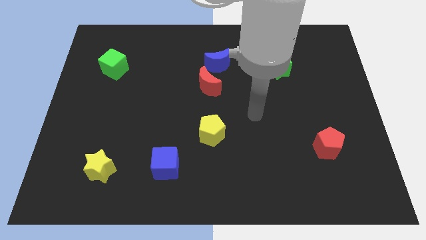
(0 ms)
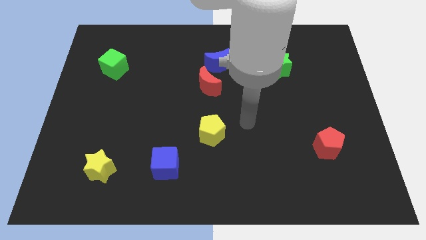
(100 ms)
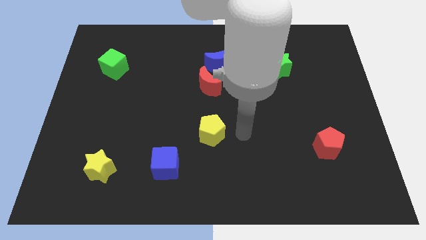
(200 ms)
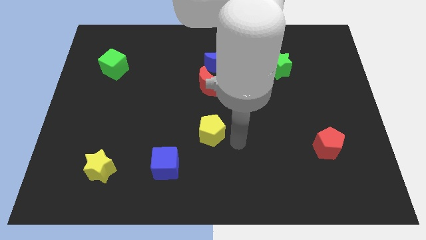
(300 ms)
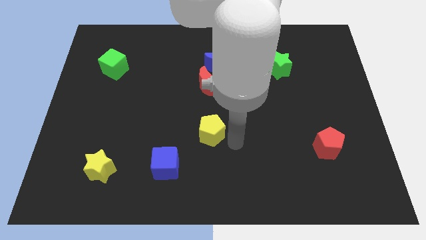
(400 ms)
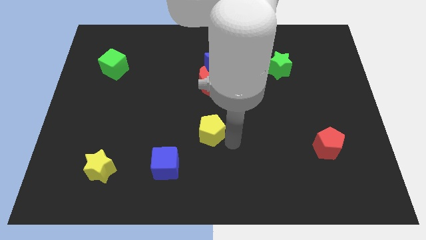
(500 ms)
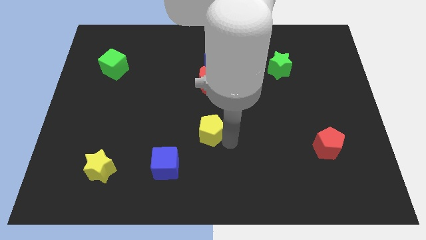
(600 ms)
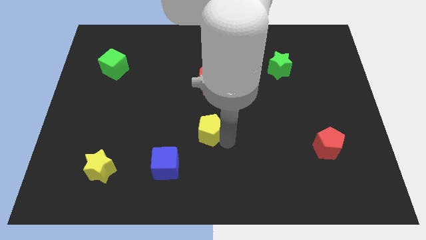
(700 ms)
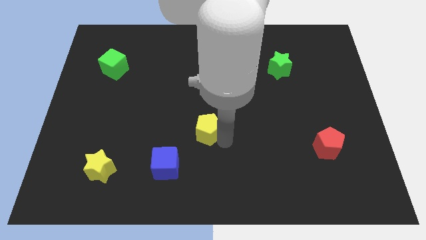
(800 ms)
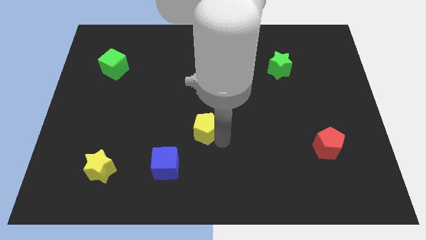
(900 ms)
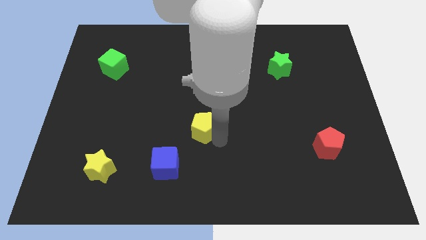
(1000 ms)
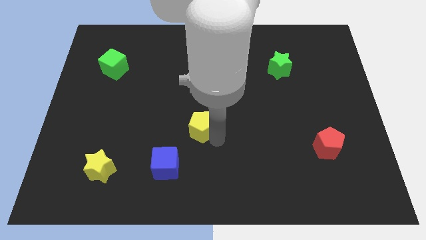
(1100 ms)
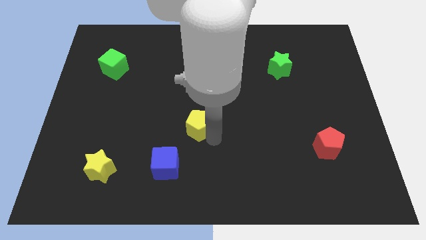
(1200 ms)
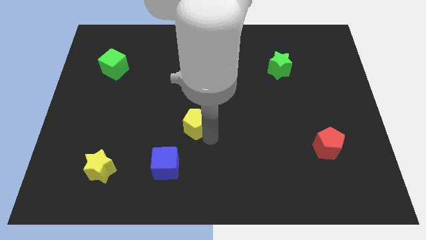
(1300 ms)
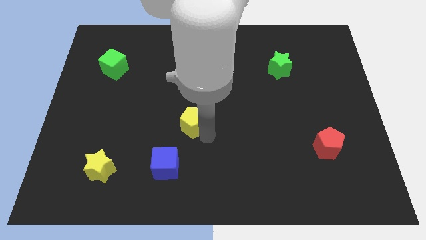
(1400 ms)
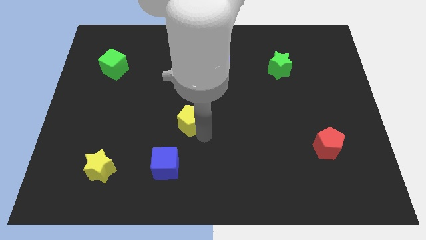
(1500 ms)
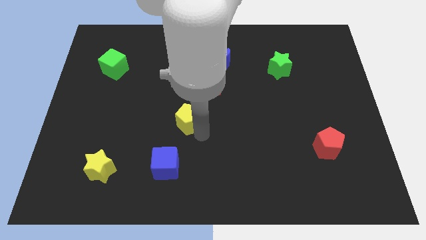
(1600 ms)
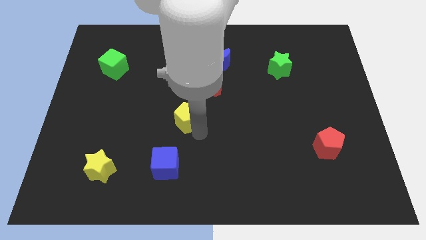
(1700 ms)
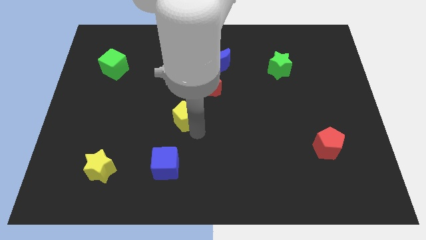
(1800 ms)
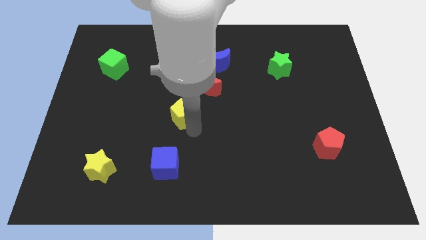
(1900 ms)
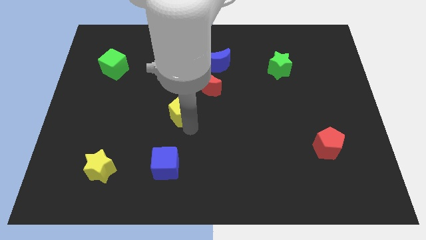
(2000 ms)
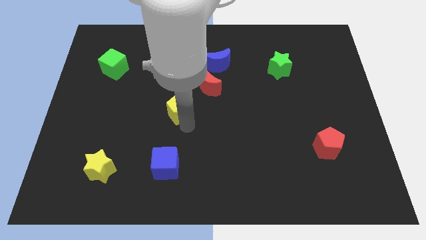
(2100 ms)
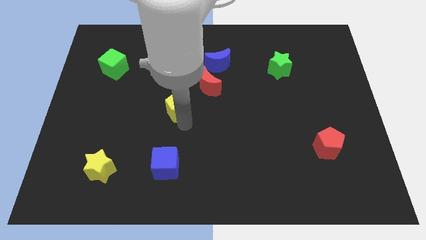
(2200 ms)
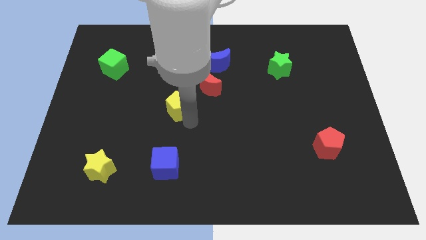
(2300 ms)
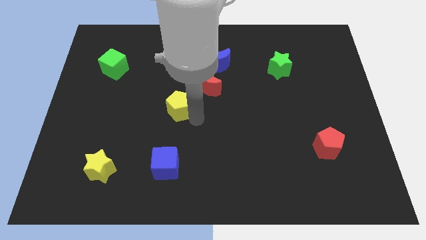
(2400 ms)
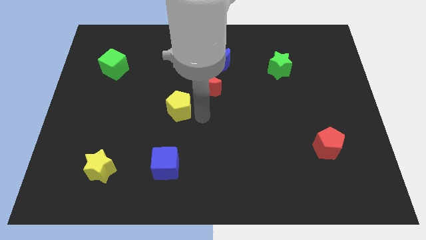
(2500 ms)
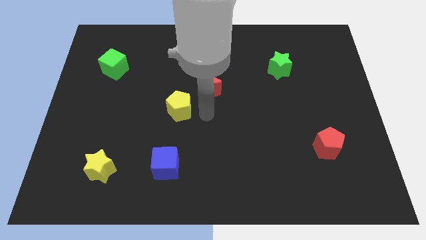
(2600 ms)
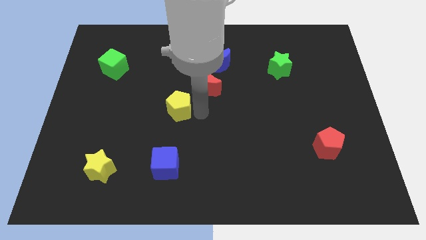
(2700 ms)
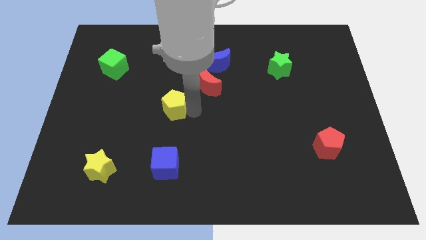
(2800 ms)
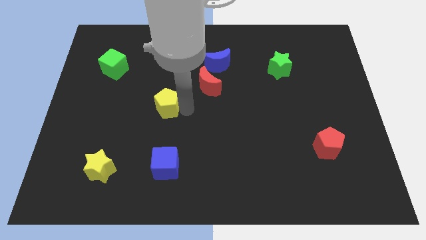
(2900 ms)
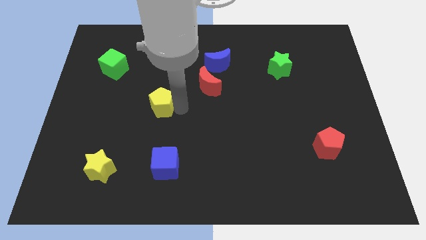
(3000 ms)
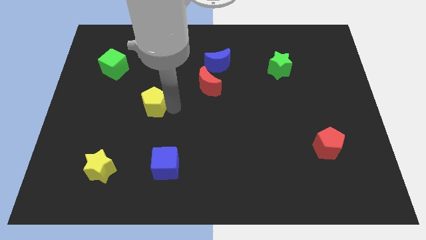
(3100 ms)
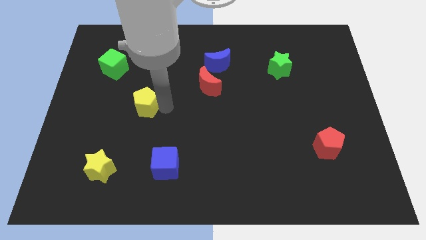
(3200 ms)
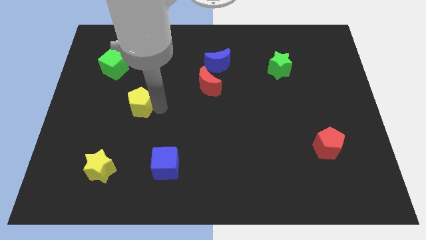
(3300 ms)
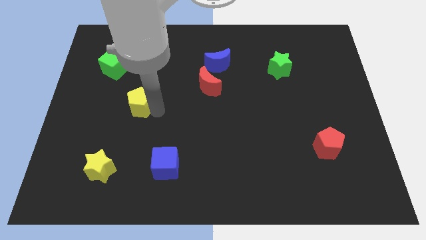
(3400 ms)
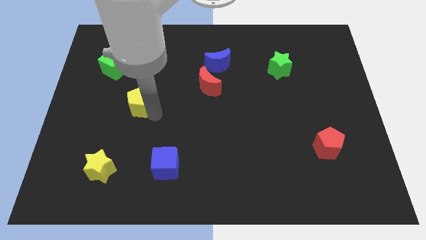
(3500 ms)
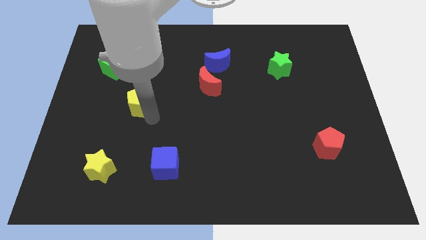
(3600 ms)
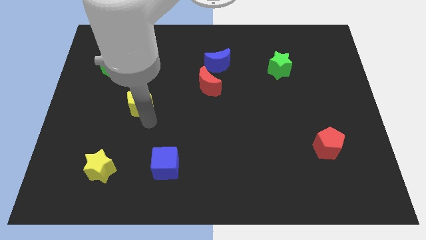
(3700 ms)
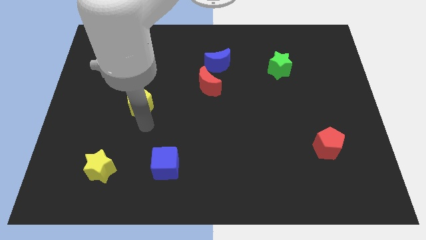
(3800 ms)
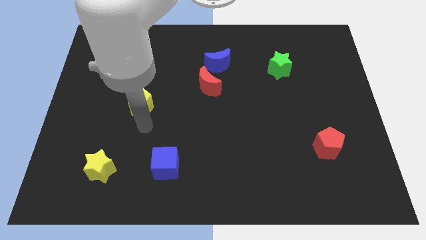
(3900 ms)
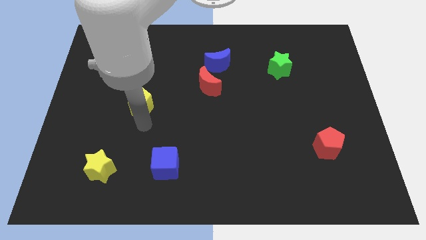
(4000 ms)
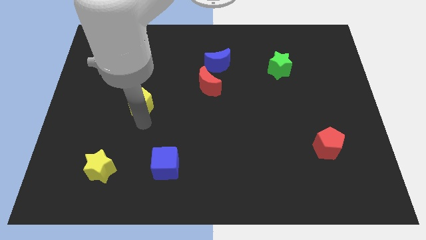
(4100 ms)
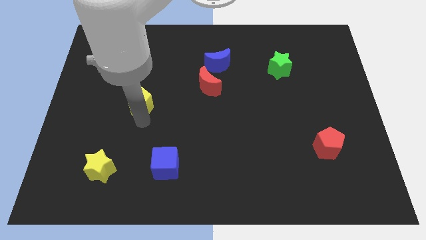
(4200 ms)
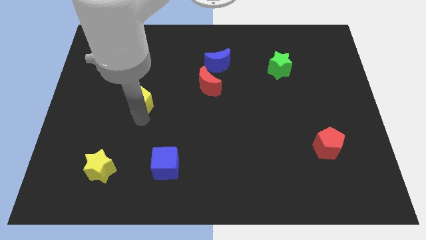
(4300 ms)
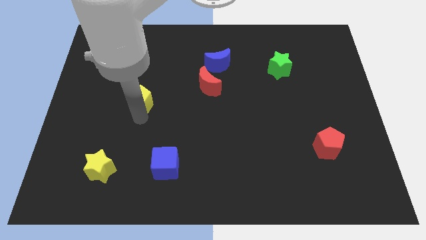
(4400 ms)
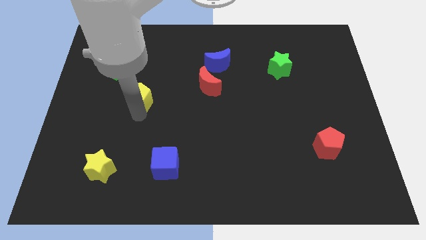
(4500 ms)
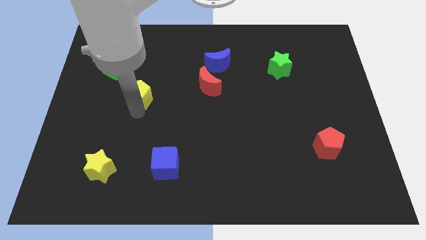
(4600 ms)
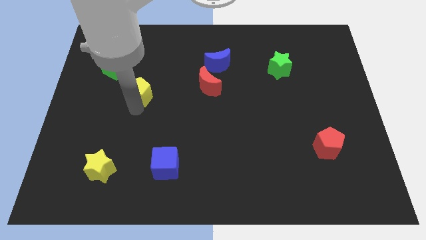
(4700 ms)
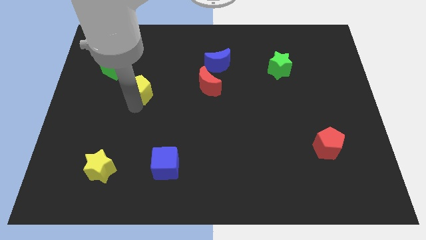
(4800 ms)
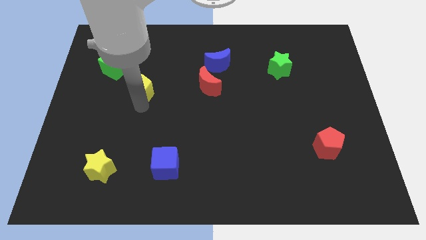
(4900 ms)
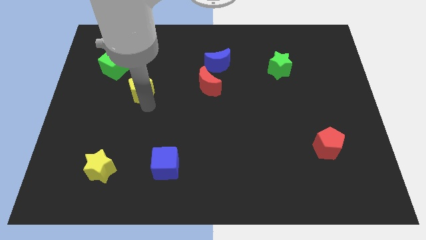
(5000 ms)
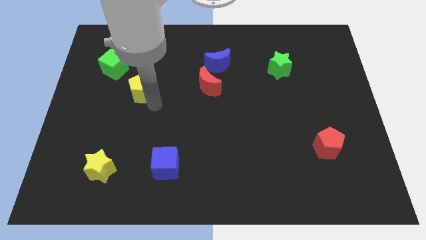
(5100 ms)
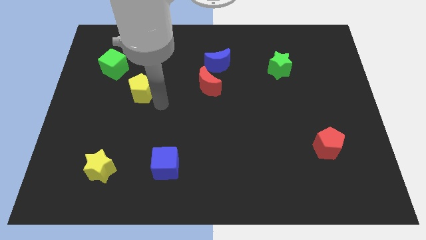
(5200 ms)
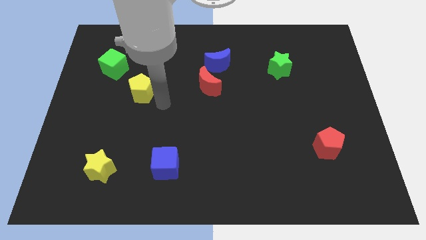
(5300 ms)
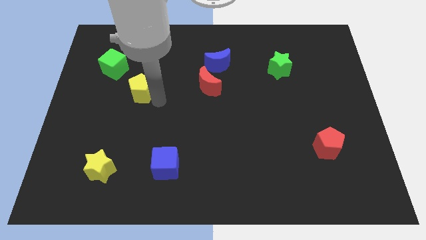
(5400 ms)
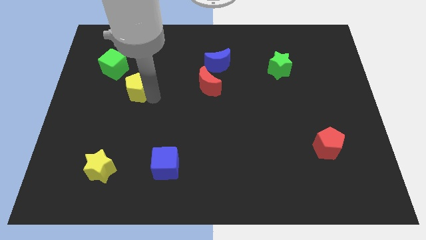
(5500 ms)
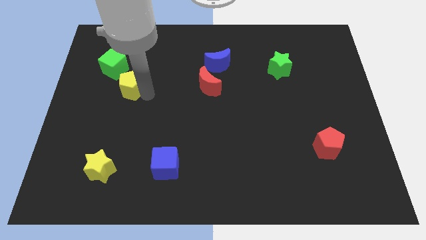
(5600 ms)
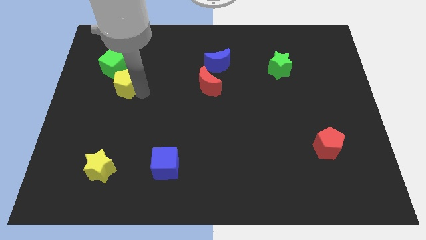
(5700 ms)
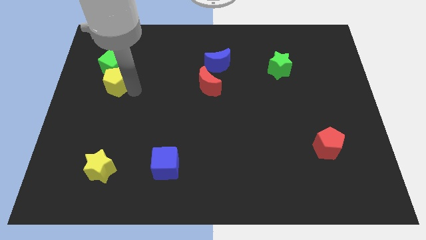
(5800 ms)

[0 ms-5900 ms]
move the yellow pentagon next to the green cube

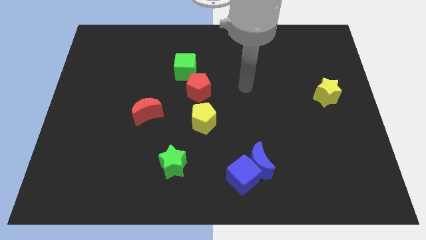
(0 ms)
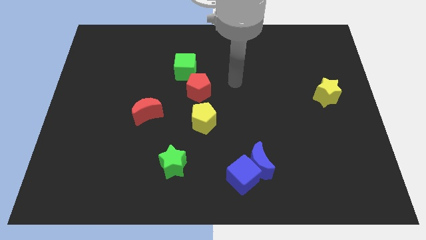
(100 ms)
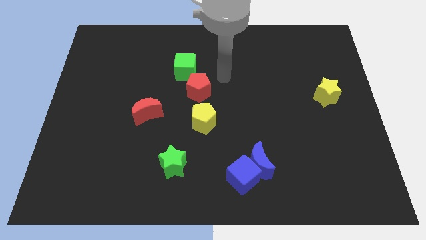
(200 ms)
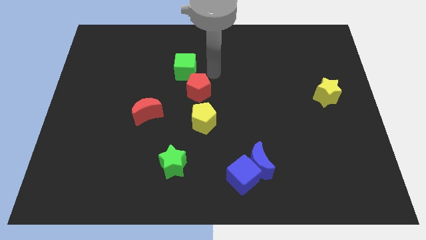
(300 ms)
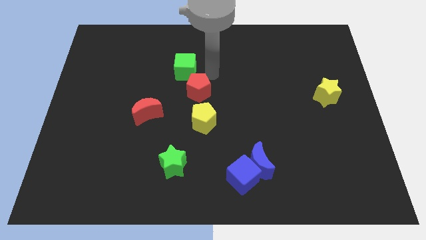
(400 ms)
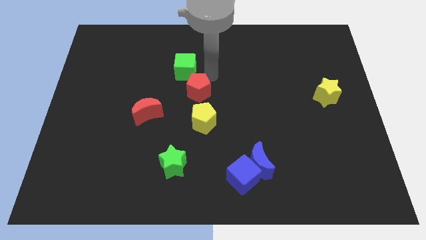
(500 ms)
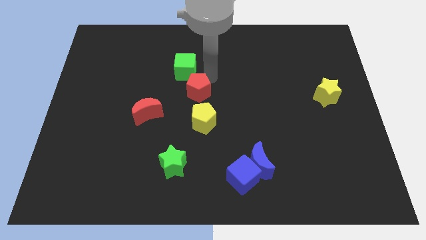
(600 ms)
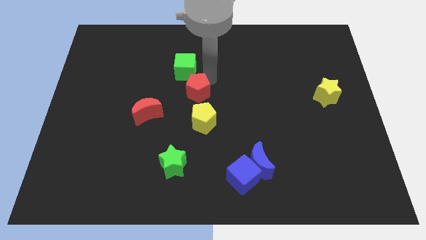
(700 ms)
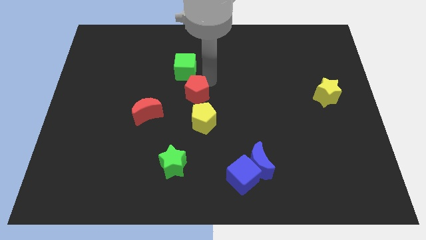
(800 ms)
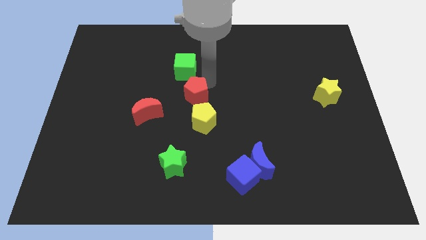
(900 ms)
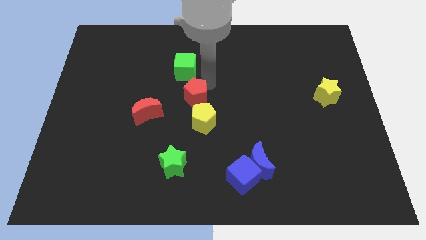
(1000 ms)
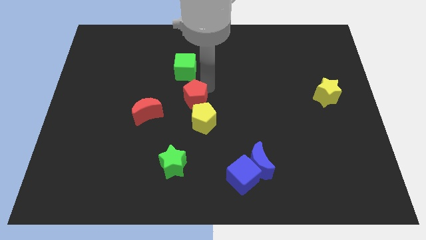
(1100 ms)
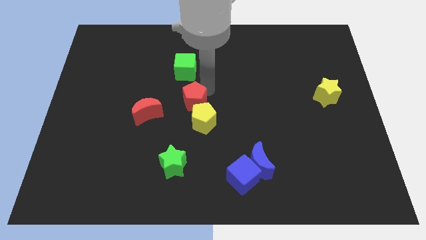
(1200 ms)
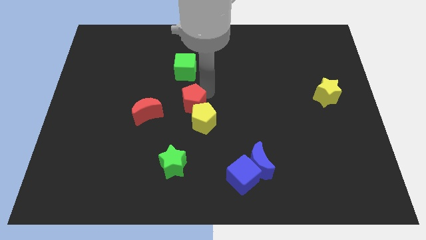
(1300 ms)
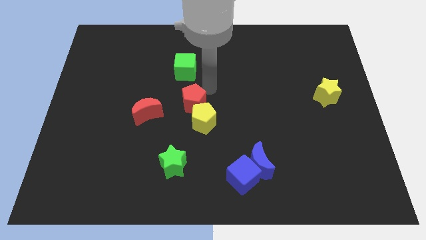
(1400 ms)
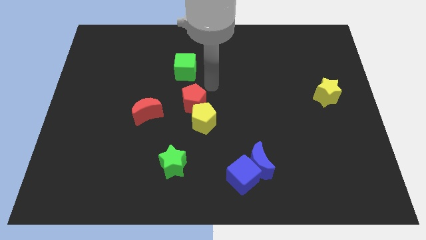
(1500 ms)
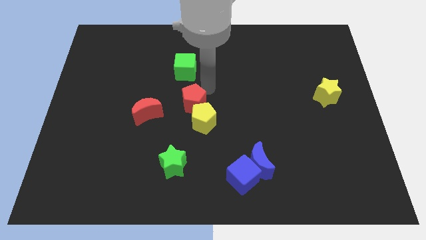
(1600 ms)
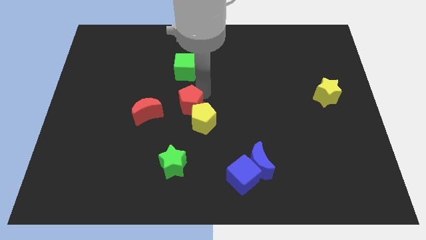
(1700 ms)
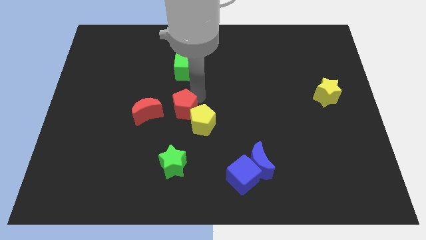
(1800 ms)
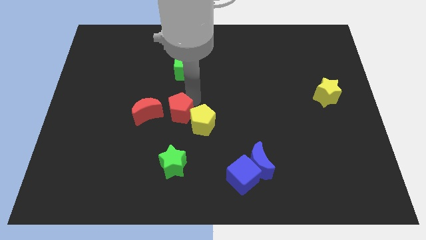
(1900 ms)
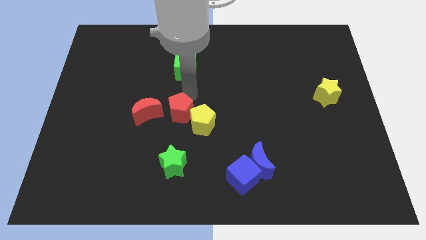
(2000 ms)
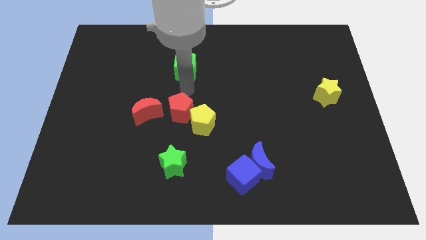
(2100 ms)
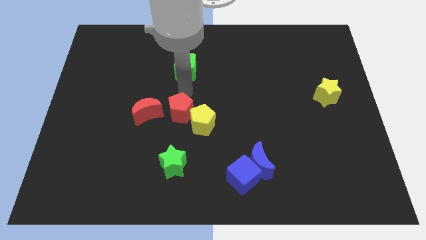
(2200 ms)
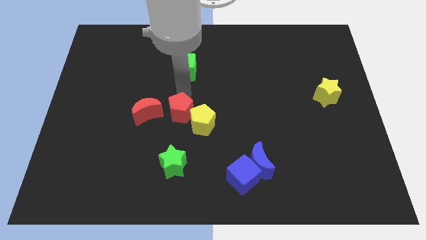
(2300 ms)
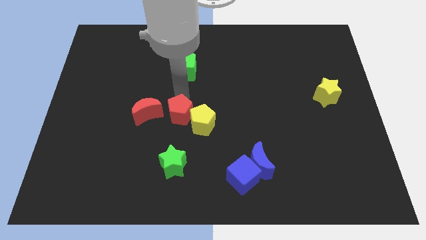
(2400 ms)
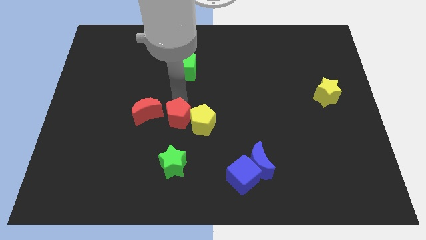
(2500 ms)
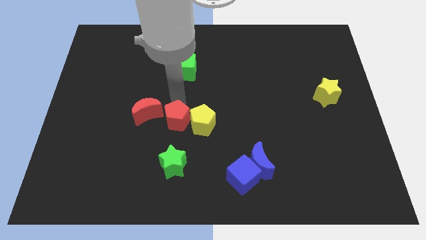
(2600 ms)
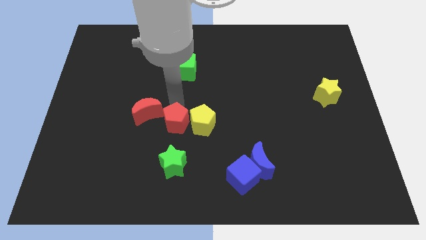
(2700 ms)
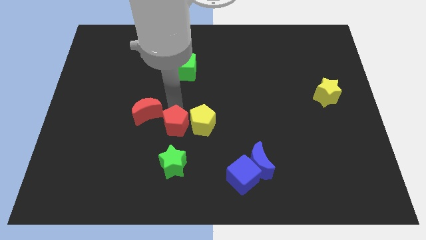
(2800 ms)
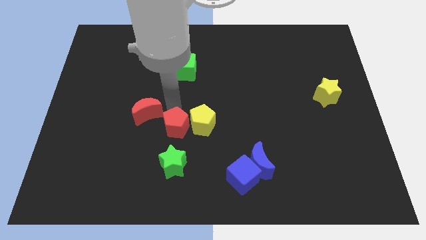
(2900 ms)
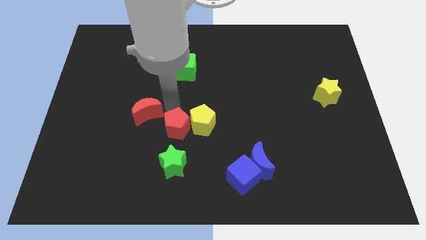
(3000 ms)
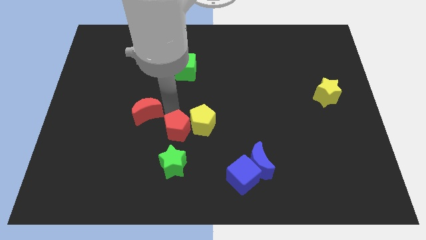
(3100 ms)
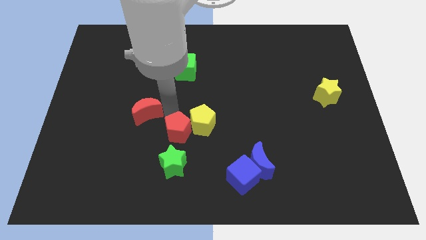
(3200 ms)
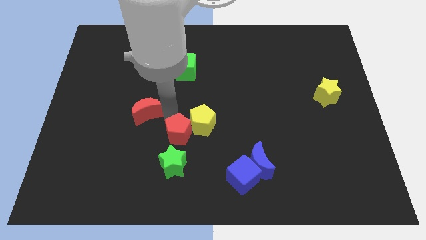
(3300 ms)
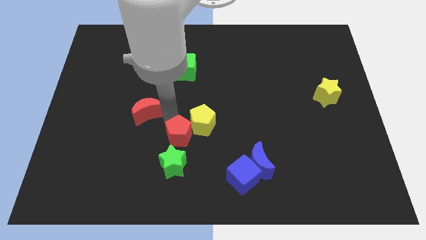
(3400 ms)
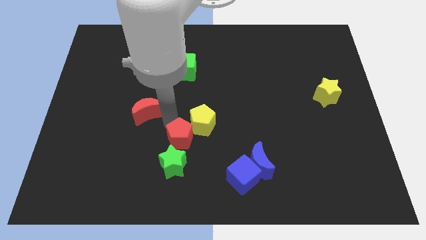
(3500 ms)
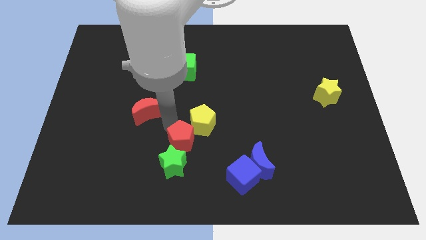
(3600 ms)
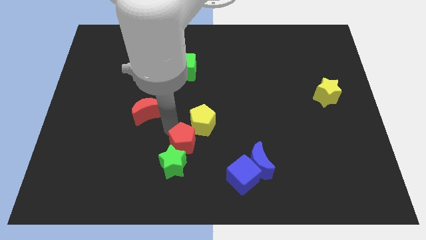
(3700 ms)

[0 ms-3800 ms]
slide the red pentagon next to the green star
